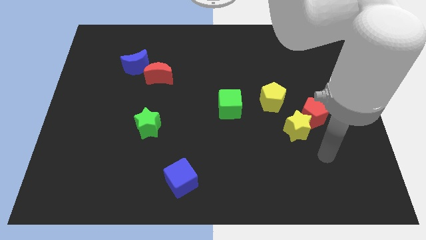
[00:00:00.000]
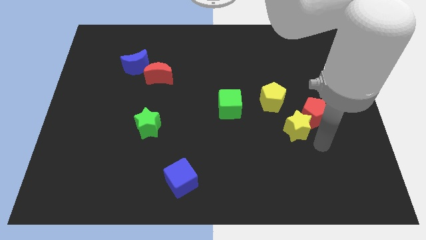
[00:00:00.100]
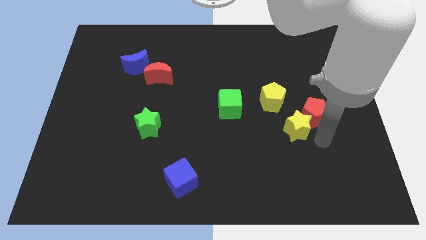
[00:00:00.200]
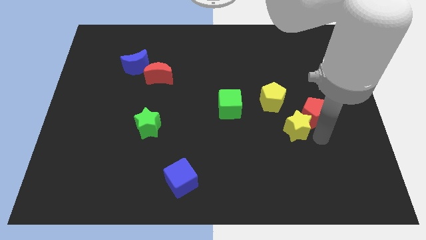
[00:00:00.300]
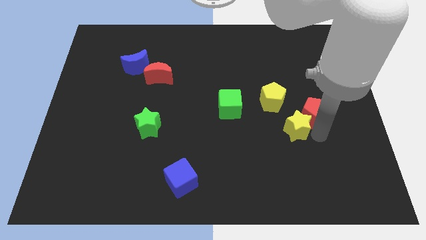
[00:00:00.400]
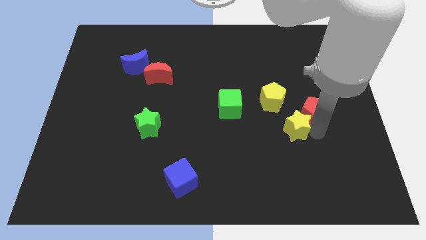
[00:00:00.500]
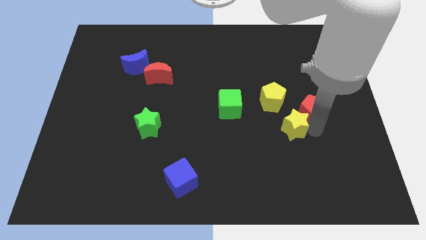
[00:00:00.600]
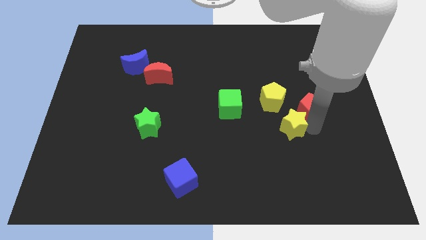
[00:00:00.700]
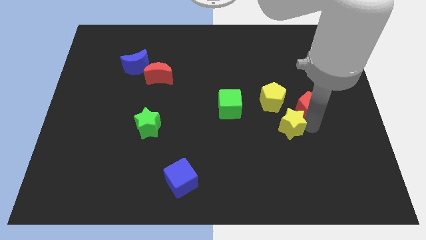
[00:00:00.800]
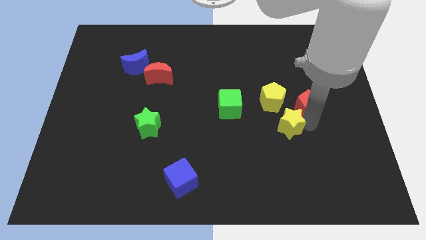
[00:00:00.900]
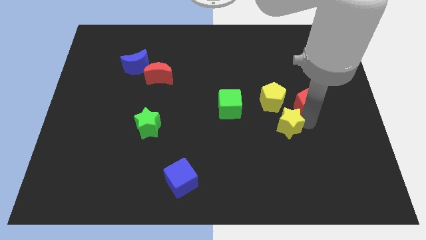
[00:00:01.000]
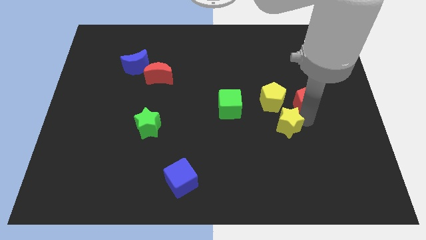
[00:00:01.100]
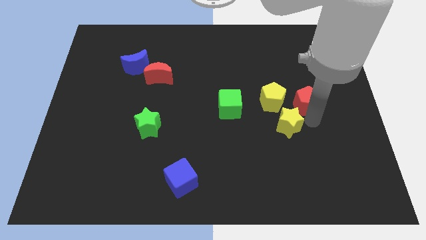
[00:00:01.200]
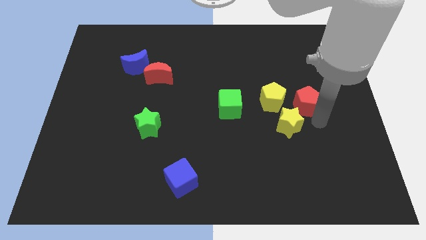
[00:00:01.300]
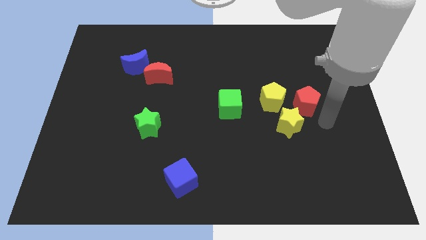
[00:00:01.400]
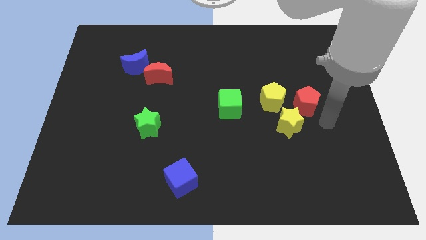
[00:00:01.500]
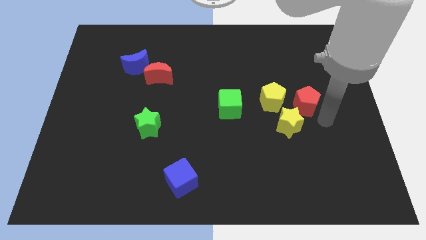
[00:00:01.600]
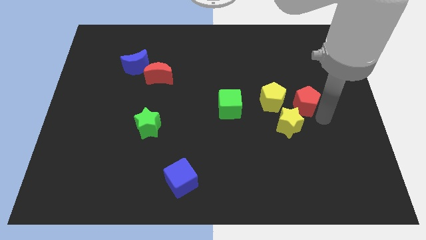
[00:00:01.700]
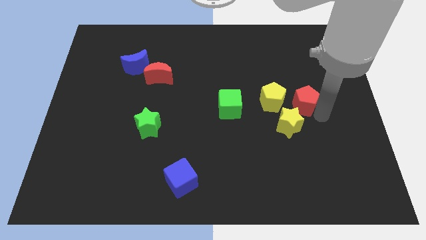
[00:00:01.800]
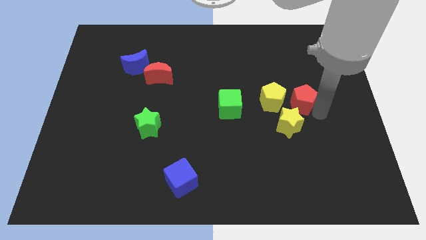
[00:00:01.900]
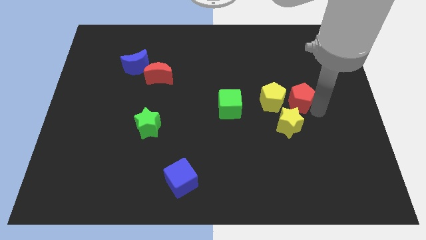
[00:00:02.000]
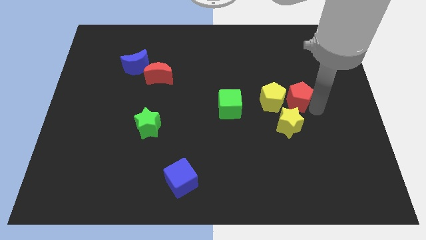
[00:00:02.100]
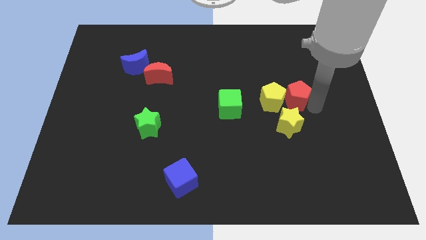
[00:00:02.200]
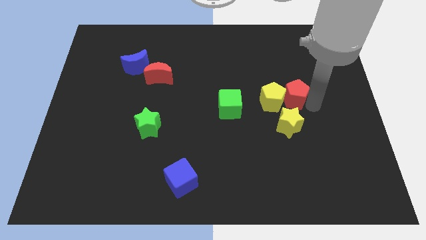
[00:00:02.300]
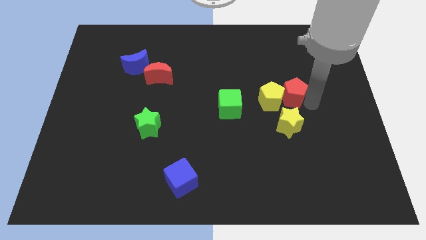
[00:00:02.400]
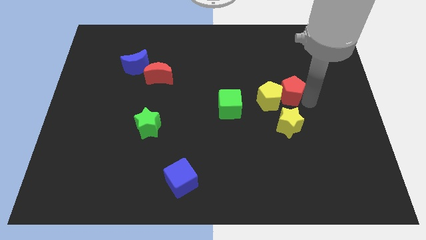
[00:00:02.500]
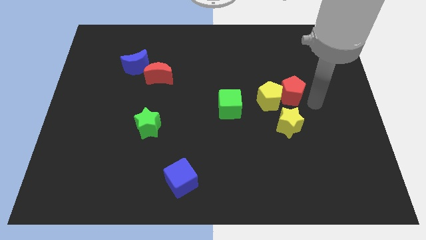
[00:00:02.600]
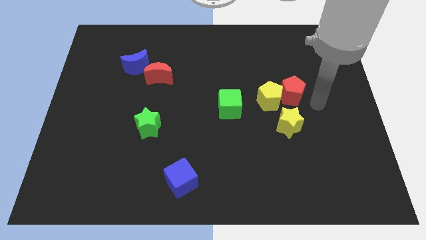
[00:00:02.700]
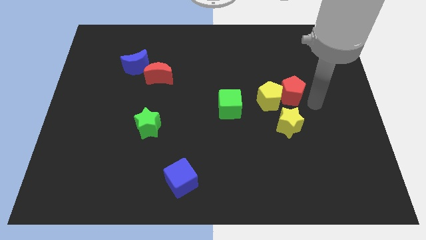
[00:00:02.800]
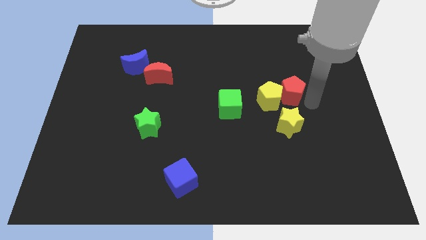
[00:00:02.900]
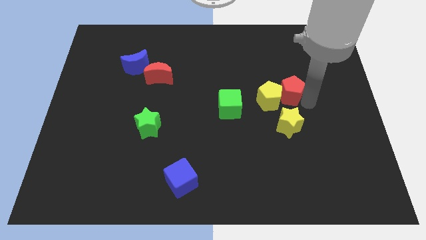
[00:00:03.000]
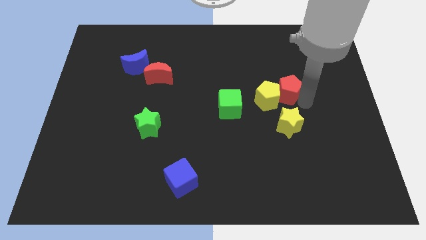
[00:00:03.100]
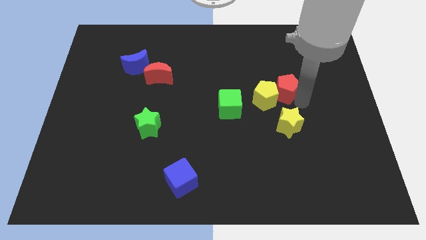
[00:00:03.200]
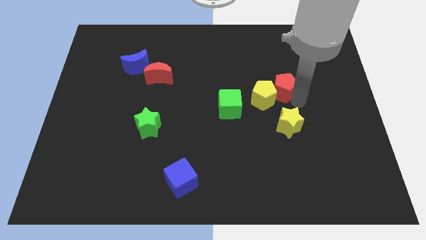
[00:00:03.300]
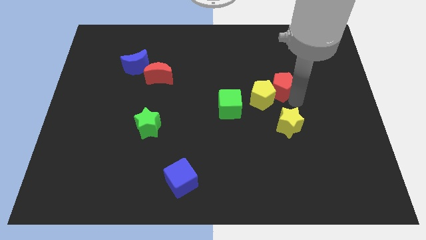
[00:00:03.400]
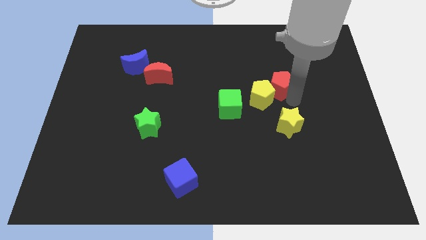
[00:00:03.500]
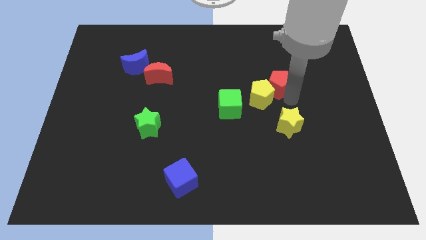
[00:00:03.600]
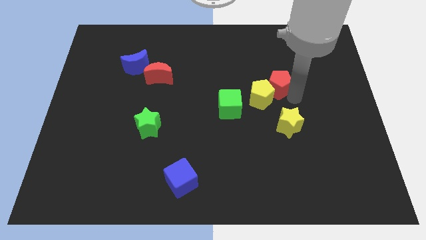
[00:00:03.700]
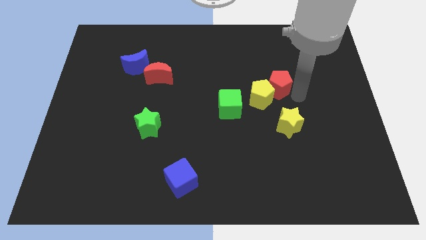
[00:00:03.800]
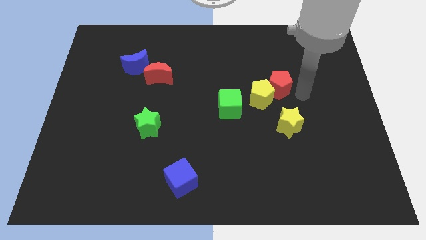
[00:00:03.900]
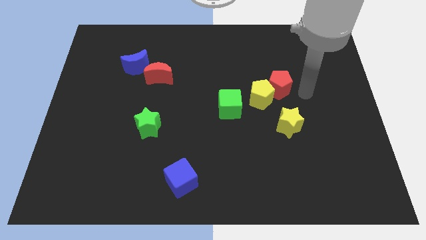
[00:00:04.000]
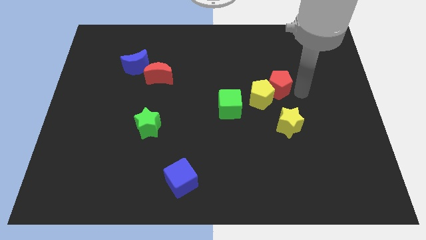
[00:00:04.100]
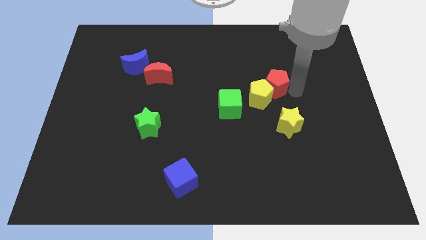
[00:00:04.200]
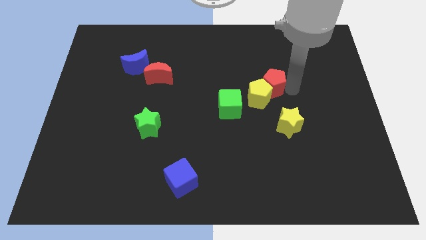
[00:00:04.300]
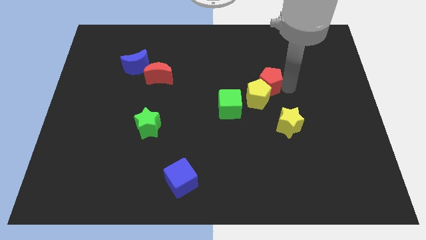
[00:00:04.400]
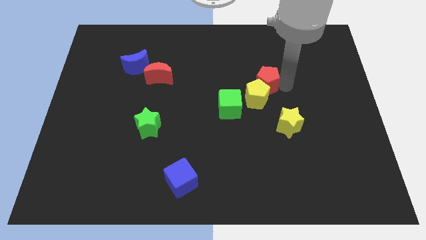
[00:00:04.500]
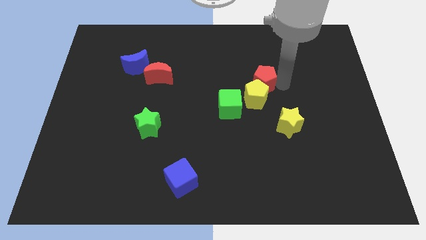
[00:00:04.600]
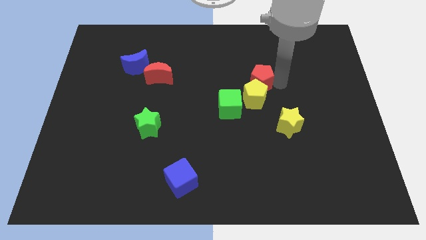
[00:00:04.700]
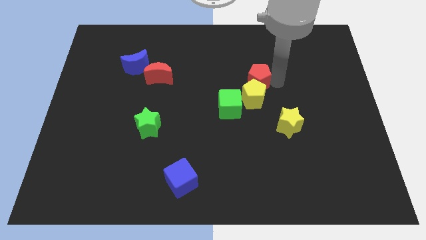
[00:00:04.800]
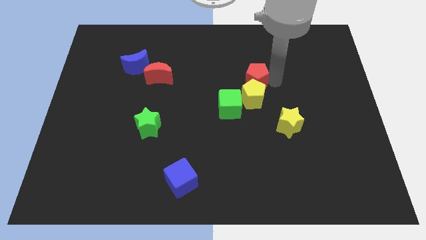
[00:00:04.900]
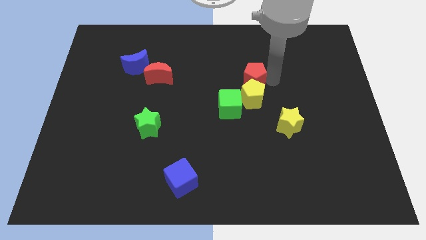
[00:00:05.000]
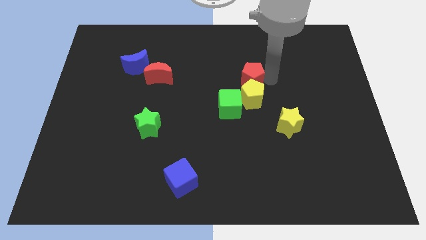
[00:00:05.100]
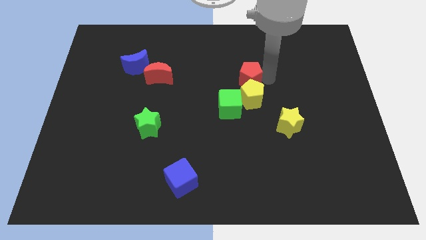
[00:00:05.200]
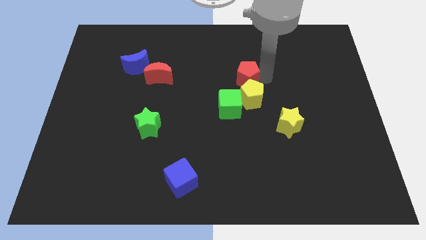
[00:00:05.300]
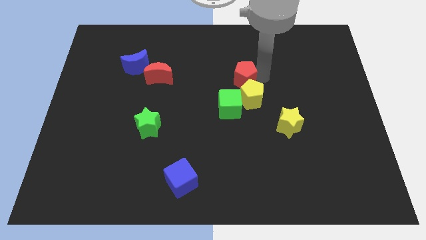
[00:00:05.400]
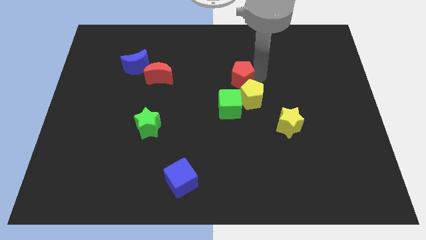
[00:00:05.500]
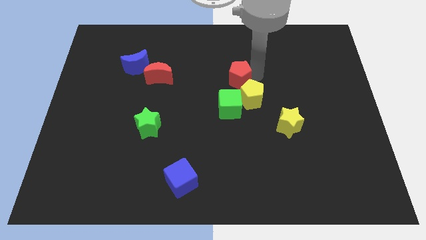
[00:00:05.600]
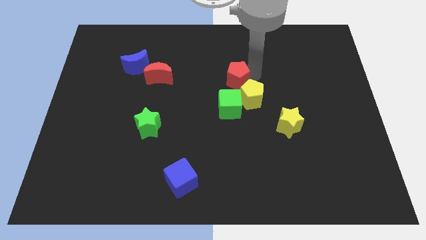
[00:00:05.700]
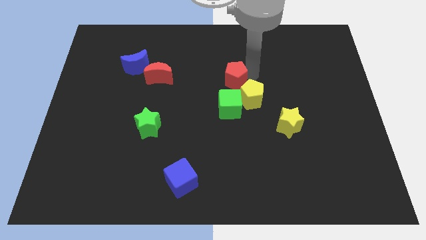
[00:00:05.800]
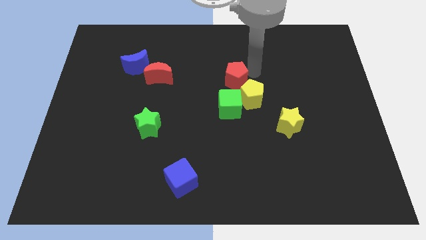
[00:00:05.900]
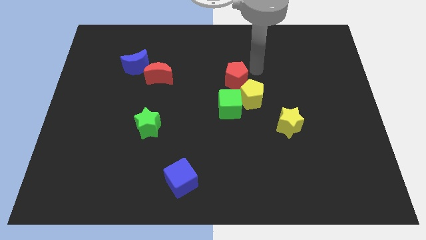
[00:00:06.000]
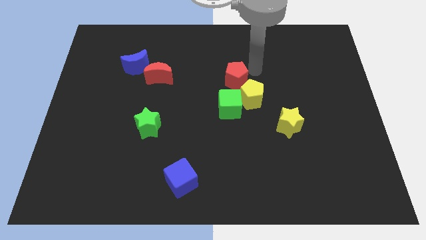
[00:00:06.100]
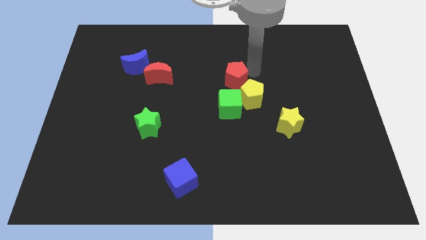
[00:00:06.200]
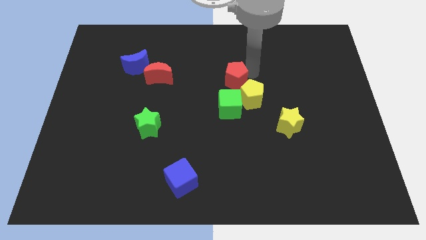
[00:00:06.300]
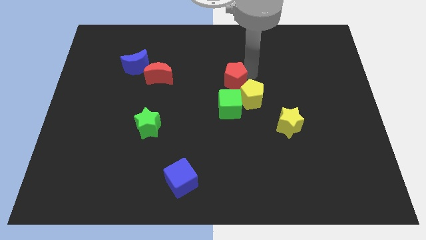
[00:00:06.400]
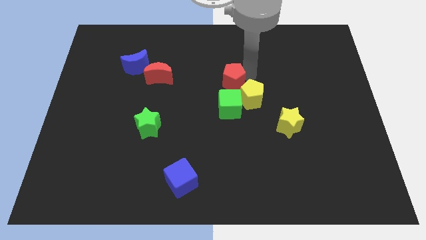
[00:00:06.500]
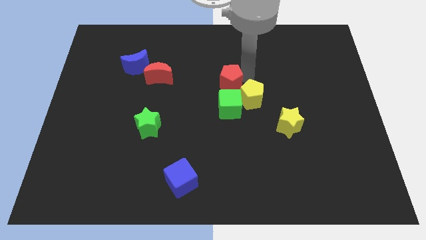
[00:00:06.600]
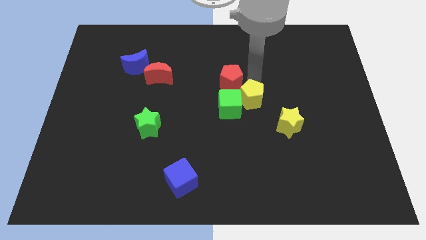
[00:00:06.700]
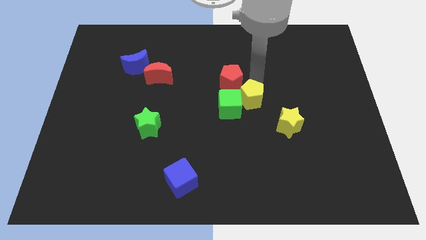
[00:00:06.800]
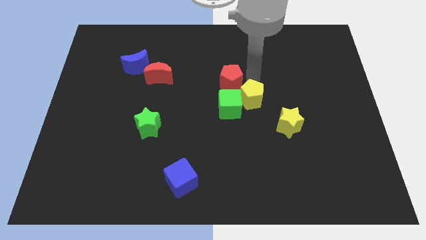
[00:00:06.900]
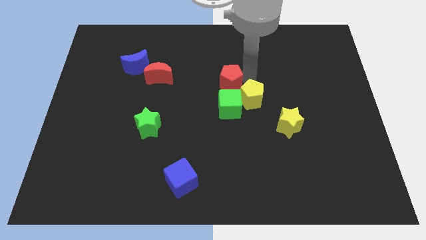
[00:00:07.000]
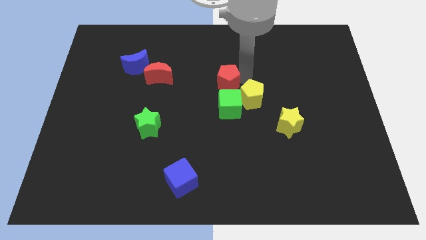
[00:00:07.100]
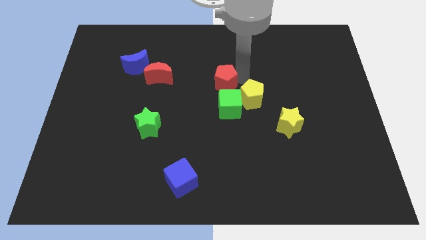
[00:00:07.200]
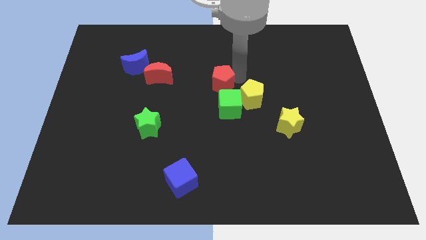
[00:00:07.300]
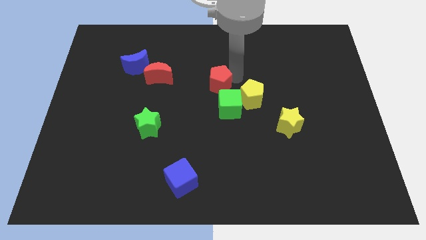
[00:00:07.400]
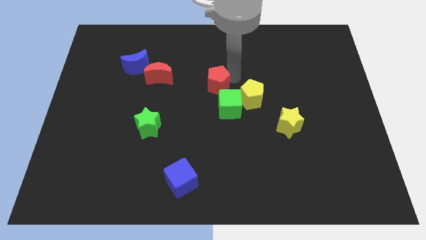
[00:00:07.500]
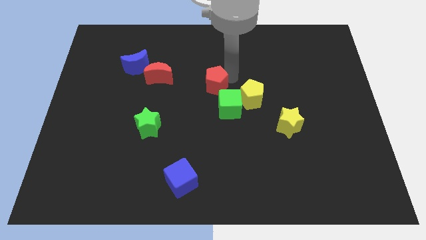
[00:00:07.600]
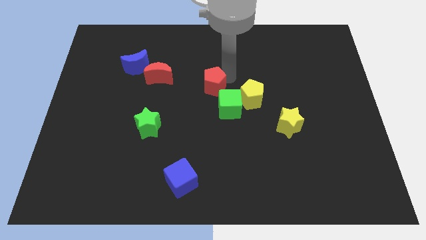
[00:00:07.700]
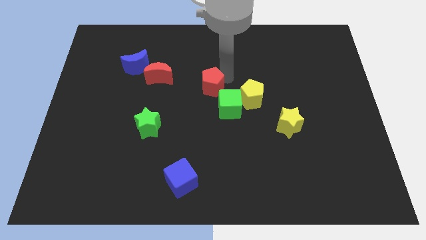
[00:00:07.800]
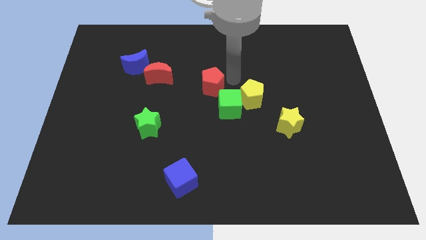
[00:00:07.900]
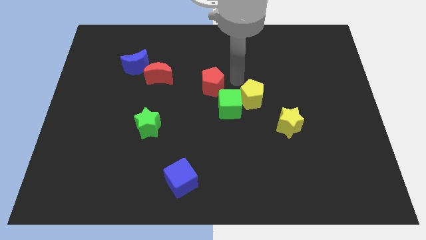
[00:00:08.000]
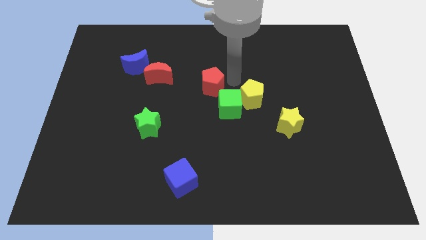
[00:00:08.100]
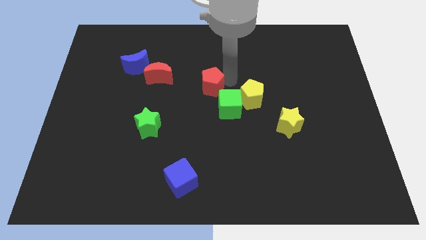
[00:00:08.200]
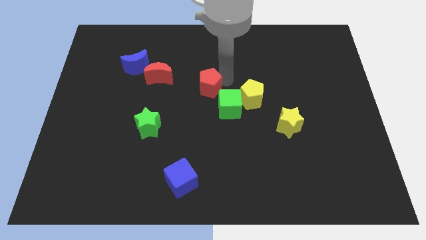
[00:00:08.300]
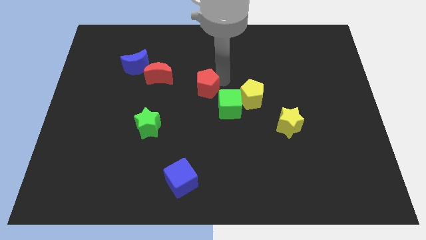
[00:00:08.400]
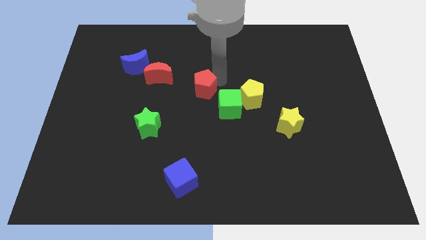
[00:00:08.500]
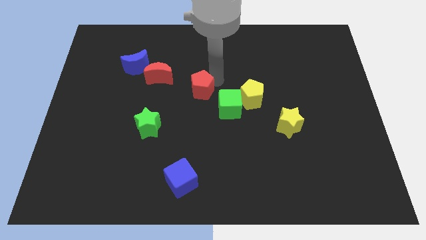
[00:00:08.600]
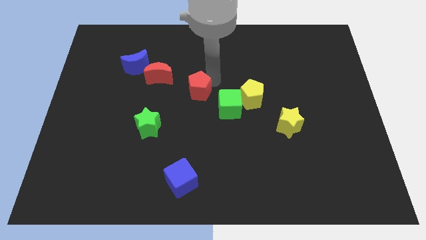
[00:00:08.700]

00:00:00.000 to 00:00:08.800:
slide the red pentagon to the bottom right side of the red moon
